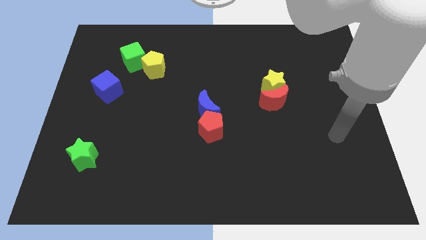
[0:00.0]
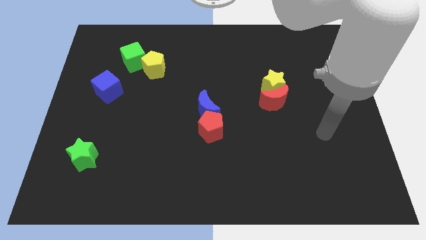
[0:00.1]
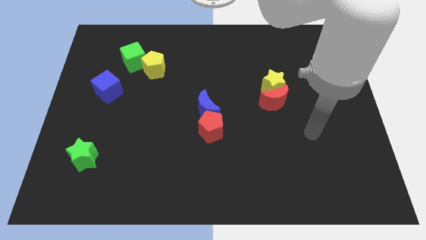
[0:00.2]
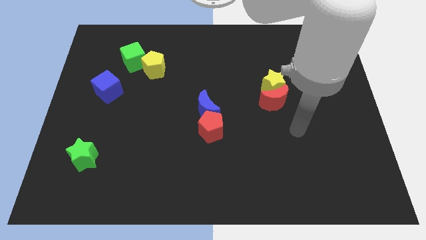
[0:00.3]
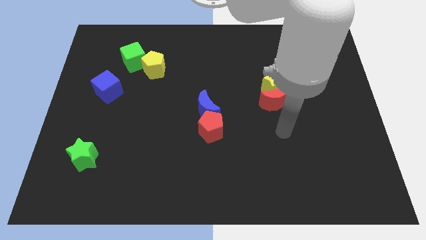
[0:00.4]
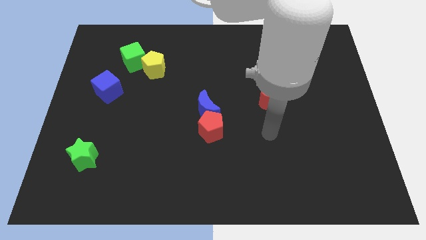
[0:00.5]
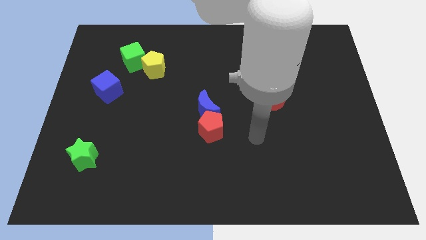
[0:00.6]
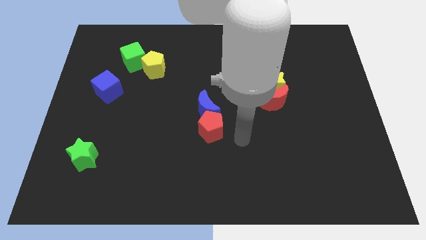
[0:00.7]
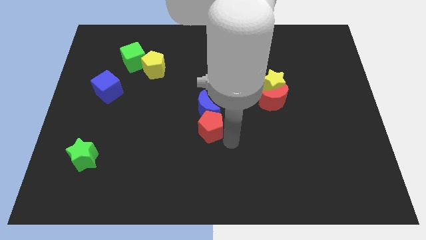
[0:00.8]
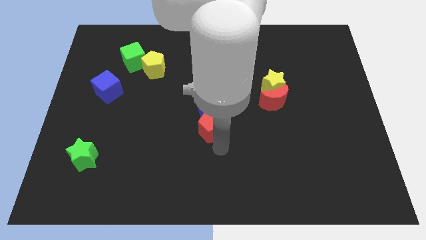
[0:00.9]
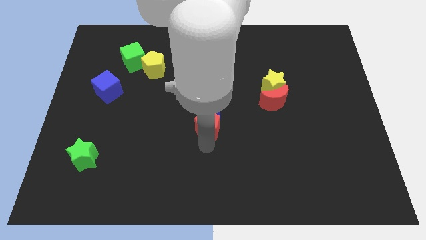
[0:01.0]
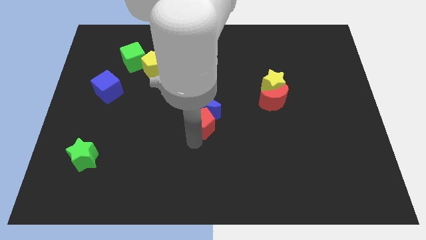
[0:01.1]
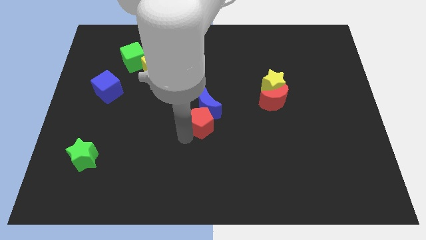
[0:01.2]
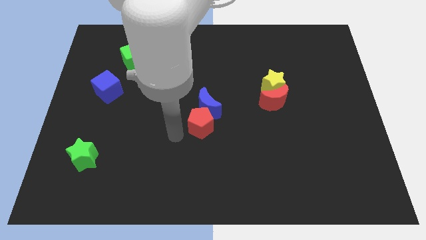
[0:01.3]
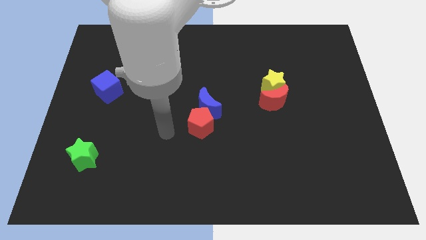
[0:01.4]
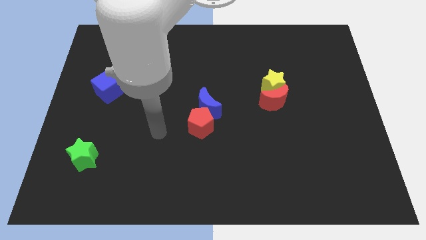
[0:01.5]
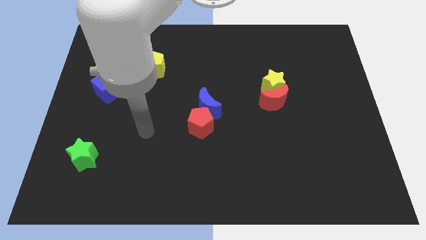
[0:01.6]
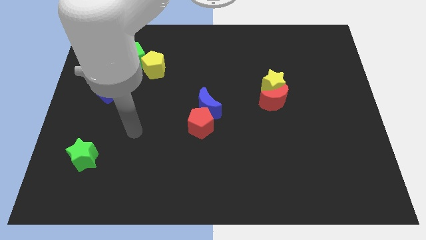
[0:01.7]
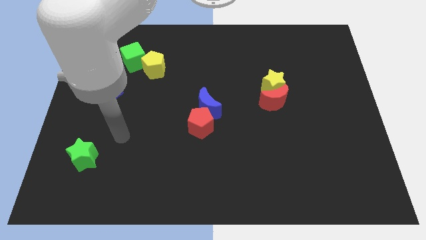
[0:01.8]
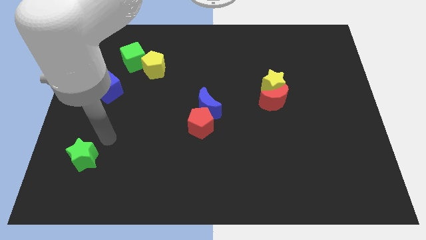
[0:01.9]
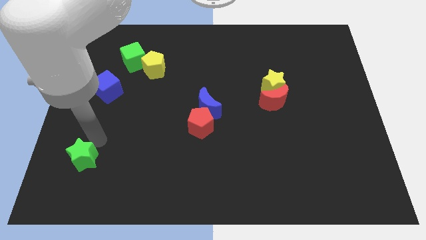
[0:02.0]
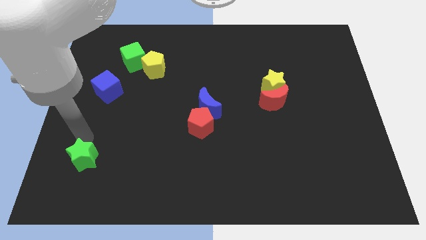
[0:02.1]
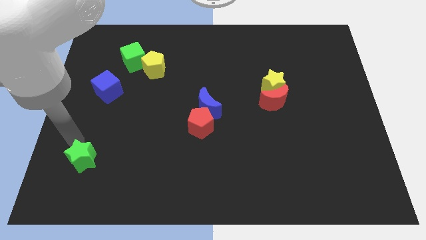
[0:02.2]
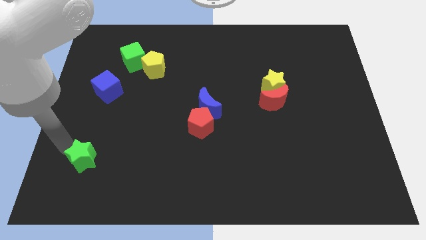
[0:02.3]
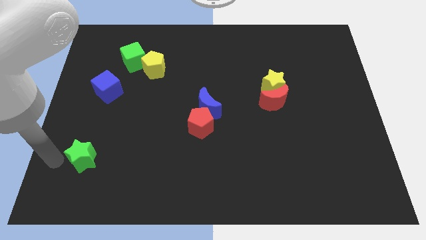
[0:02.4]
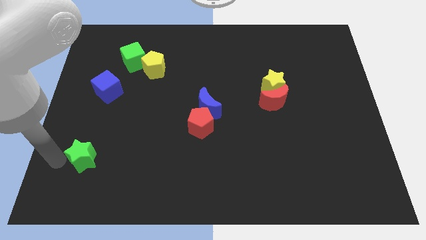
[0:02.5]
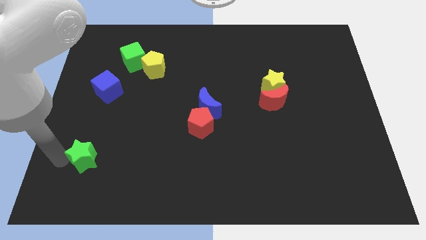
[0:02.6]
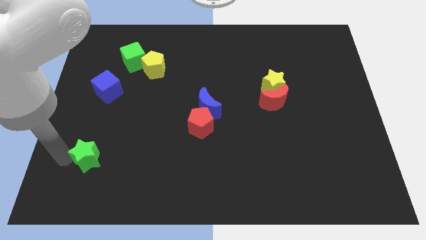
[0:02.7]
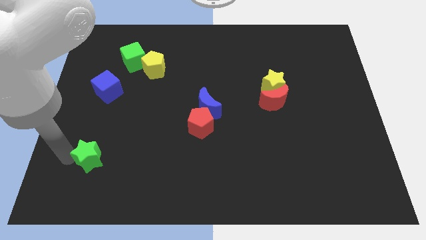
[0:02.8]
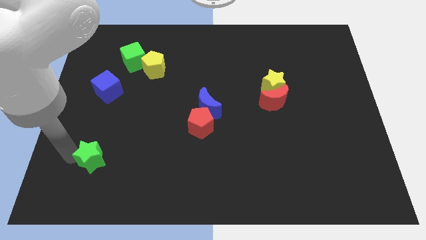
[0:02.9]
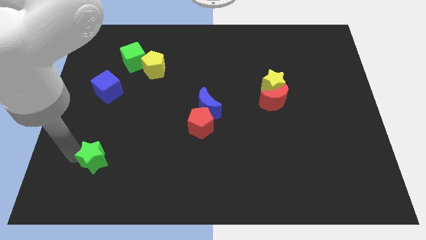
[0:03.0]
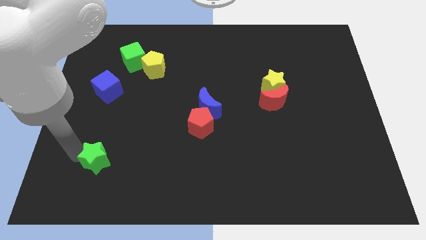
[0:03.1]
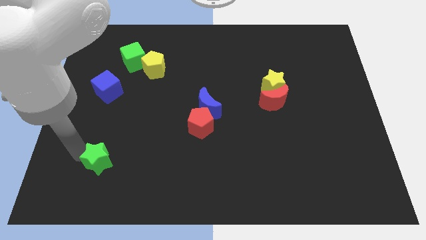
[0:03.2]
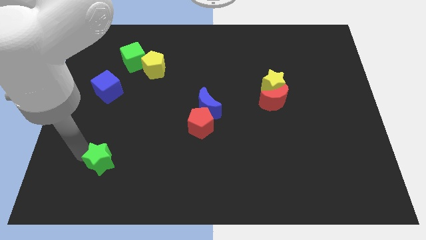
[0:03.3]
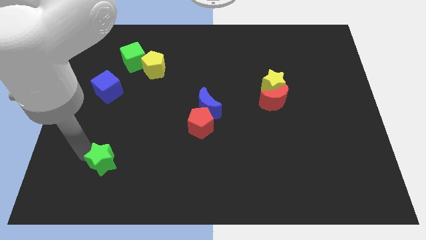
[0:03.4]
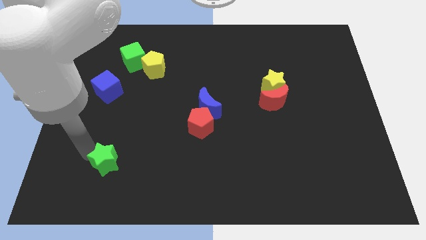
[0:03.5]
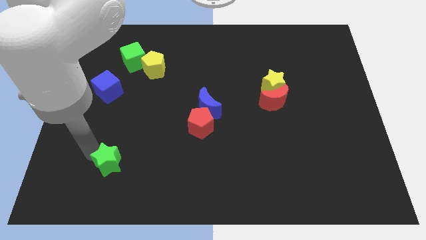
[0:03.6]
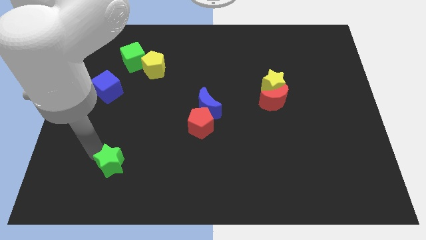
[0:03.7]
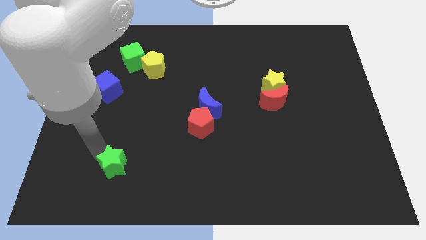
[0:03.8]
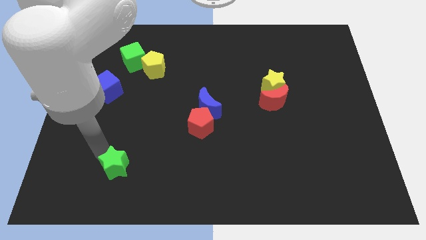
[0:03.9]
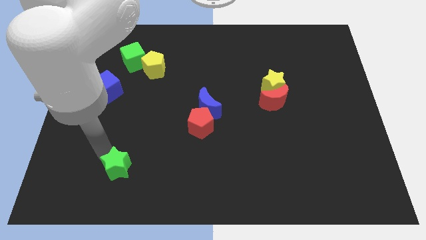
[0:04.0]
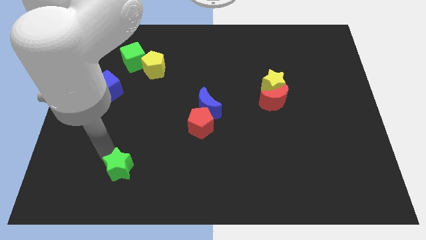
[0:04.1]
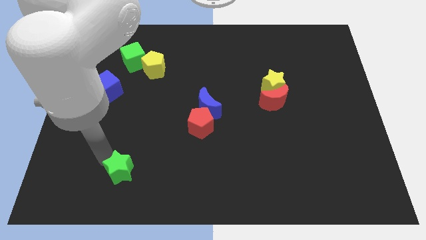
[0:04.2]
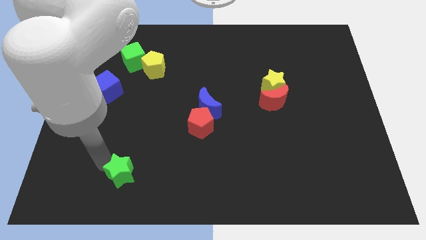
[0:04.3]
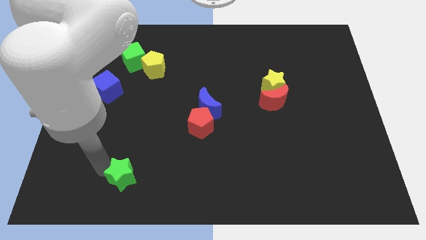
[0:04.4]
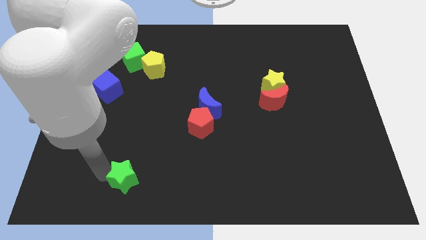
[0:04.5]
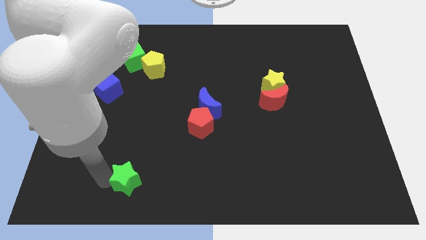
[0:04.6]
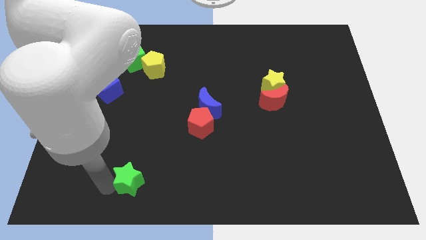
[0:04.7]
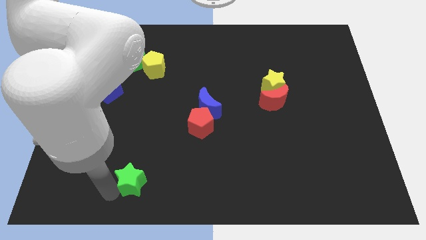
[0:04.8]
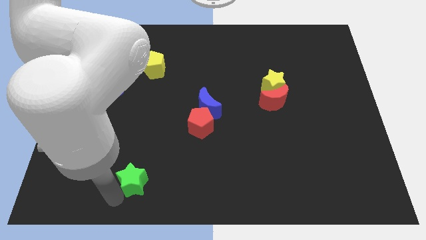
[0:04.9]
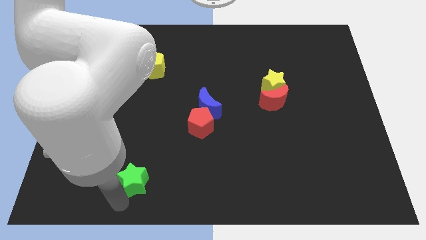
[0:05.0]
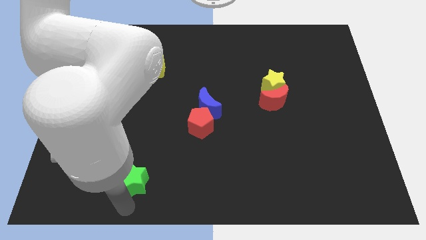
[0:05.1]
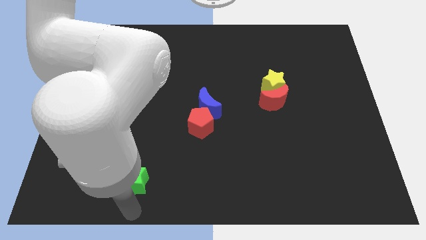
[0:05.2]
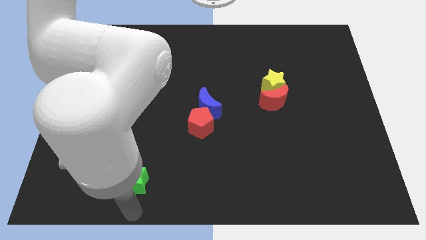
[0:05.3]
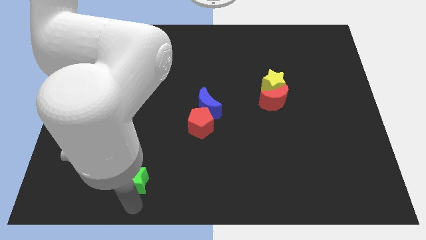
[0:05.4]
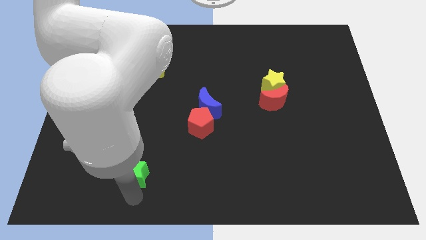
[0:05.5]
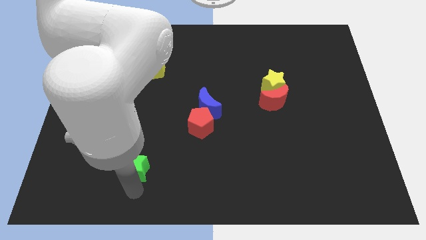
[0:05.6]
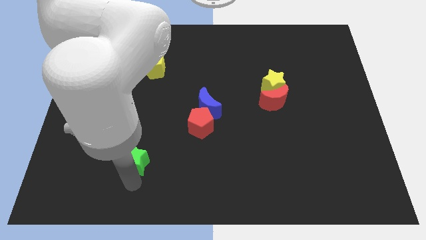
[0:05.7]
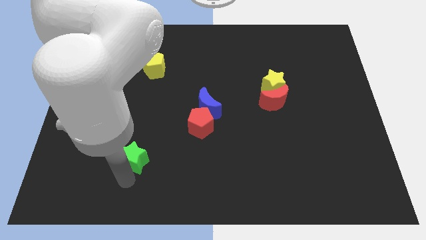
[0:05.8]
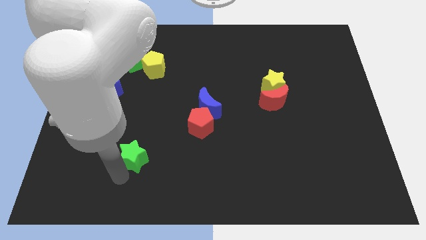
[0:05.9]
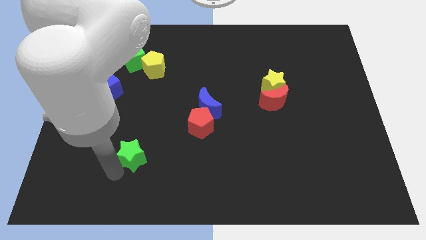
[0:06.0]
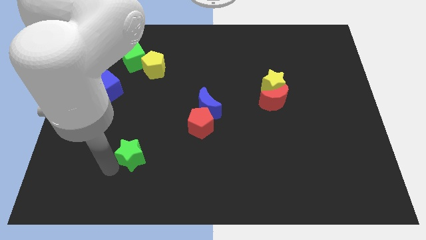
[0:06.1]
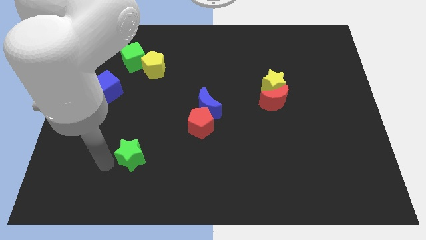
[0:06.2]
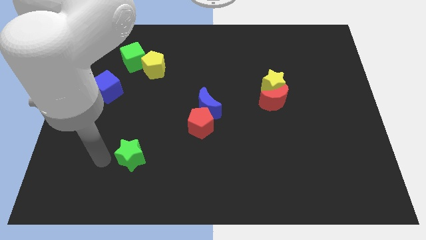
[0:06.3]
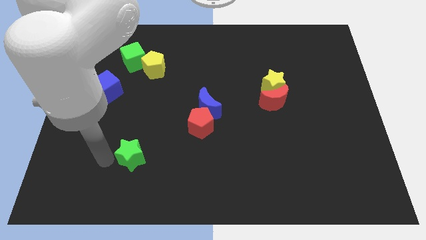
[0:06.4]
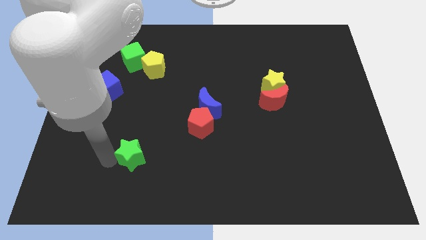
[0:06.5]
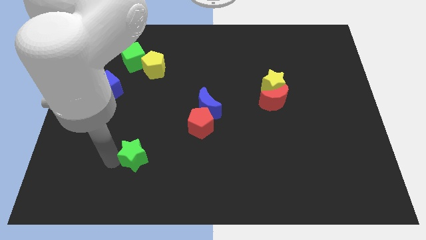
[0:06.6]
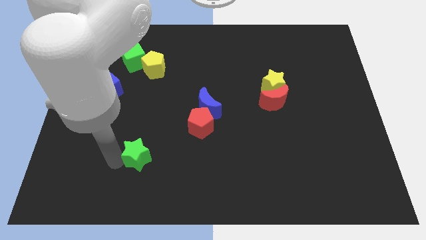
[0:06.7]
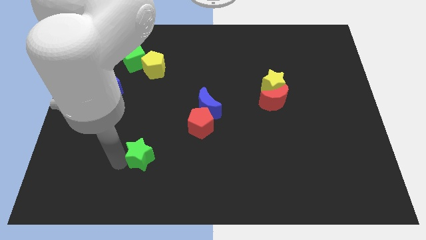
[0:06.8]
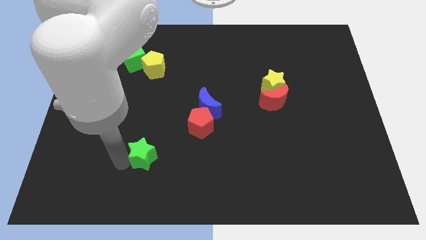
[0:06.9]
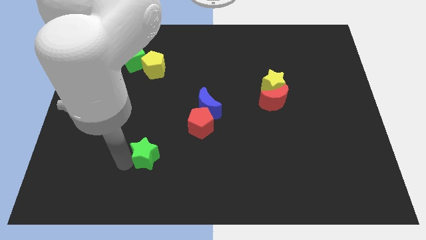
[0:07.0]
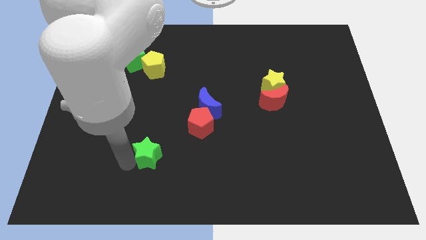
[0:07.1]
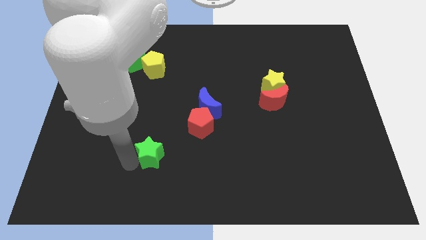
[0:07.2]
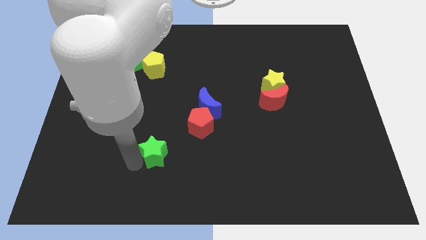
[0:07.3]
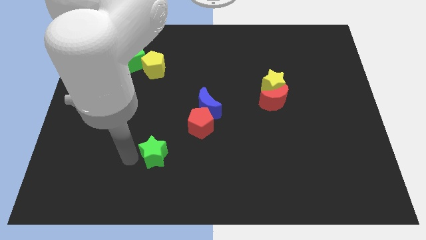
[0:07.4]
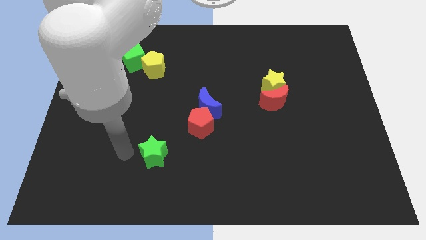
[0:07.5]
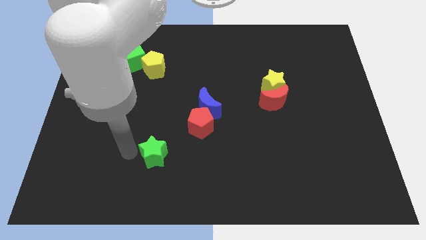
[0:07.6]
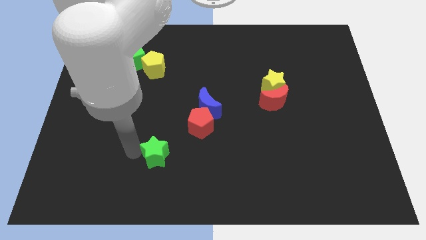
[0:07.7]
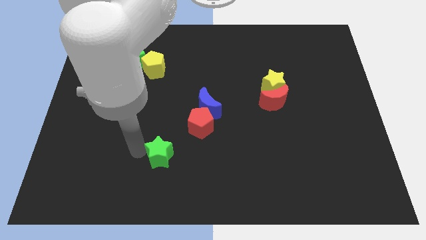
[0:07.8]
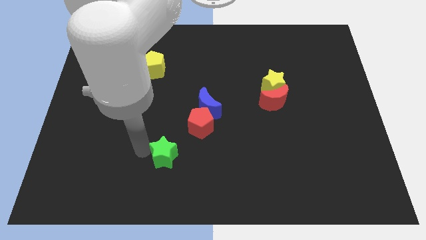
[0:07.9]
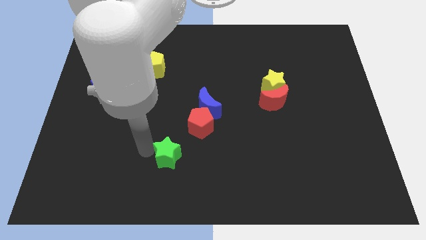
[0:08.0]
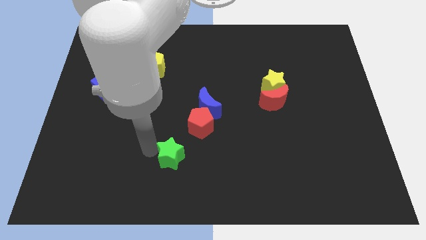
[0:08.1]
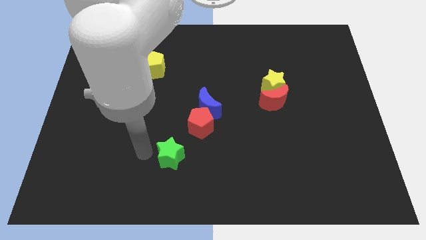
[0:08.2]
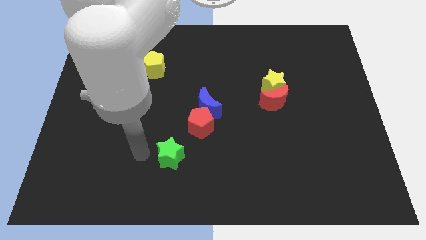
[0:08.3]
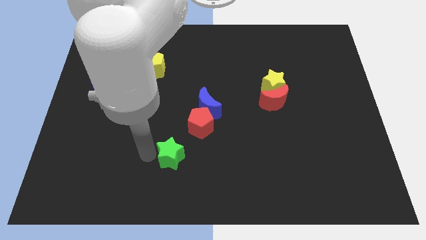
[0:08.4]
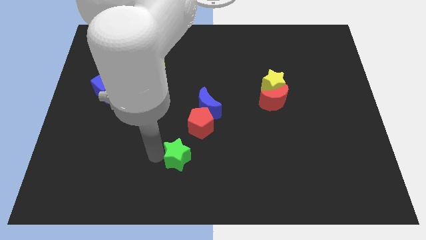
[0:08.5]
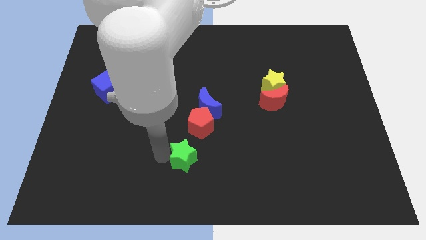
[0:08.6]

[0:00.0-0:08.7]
push the green star right
